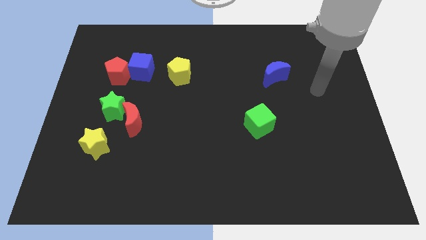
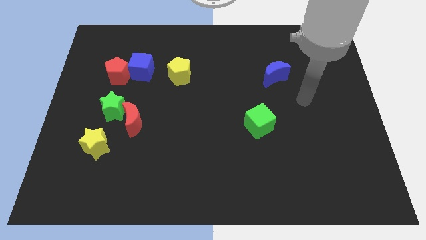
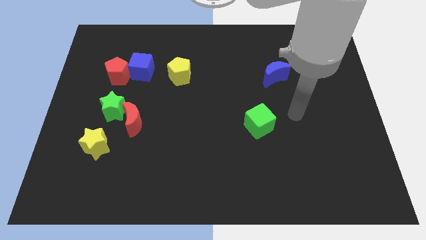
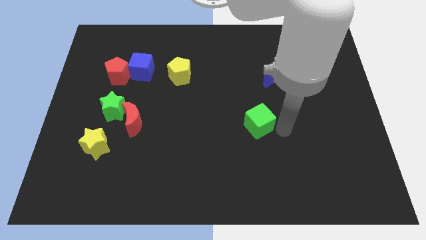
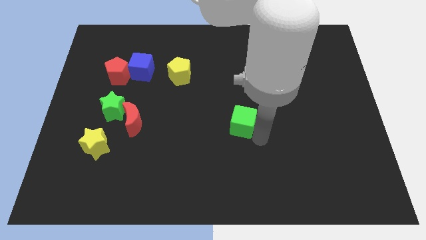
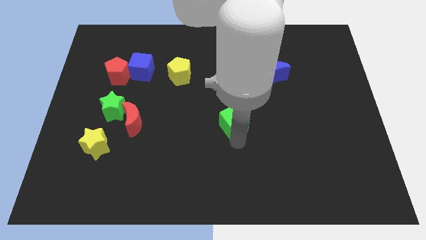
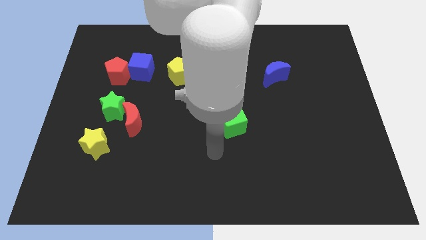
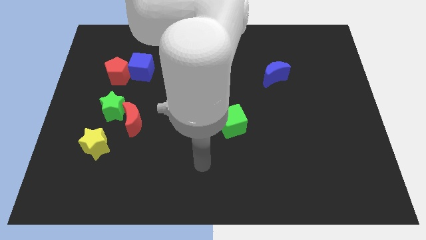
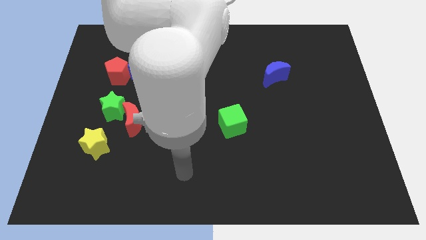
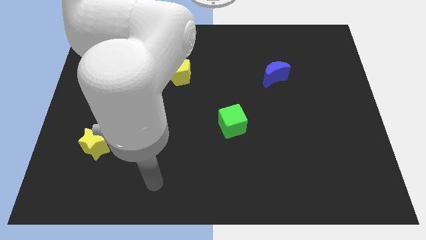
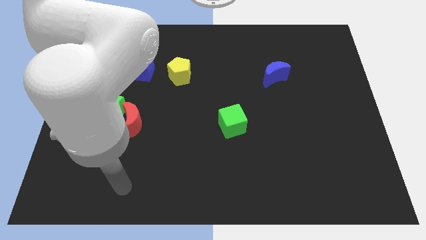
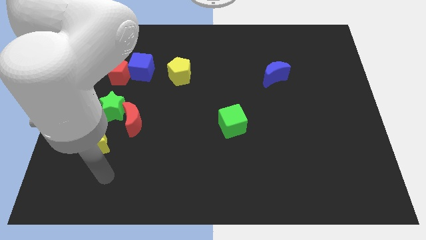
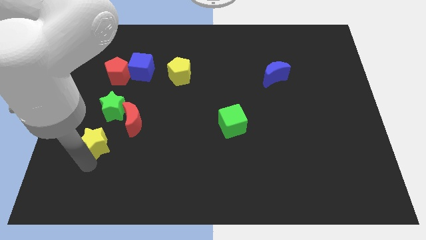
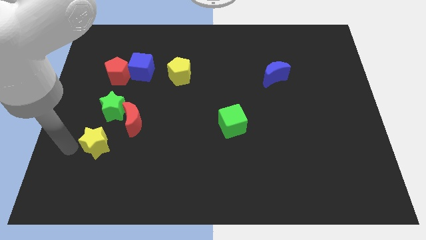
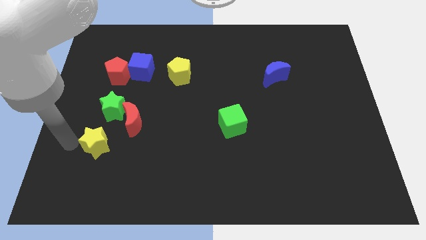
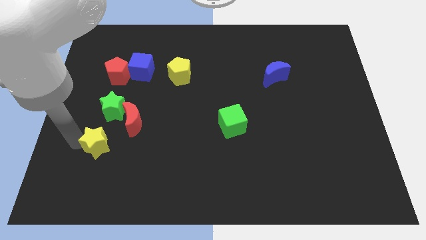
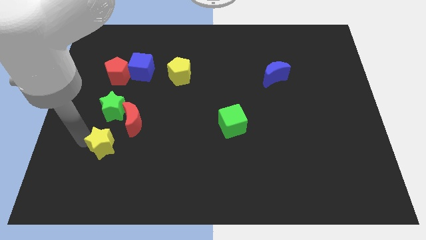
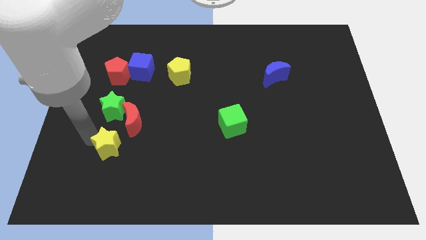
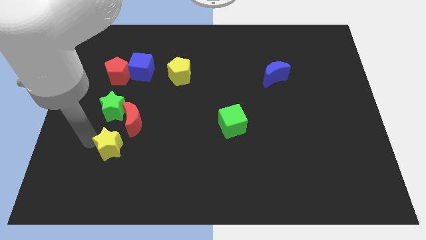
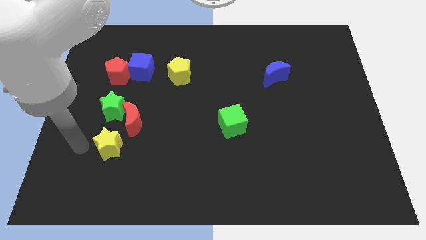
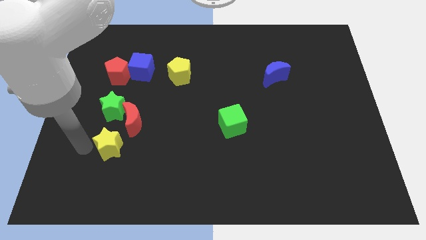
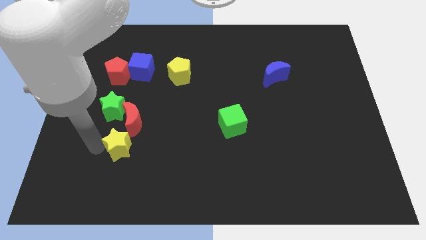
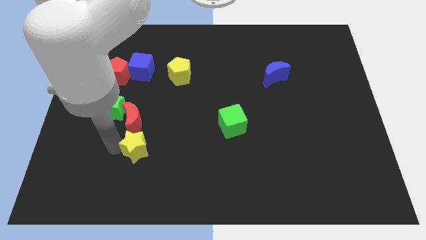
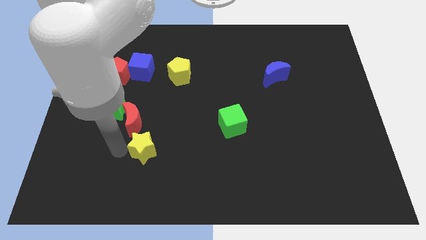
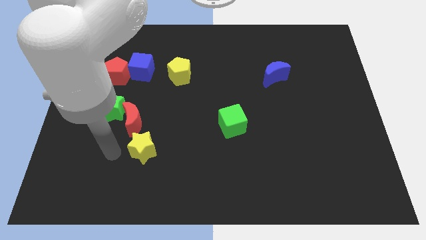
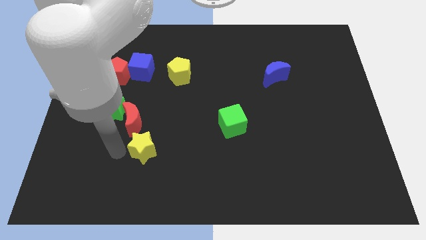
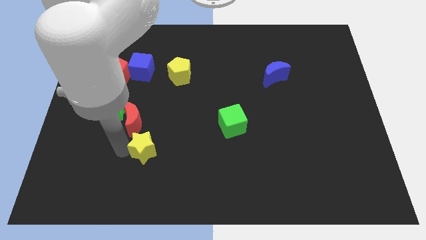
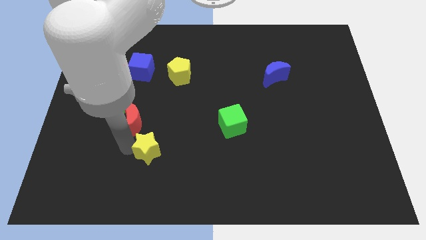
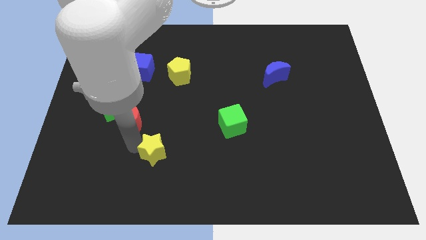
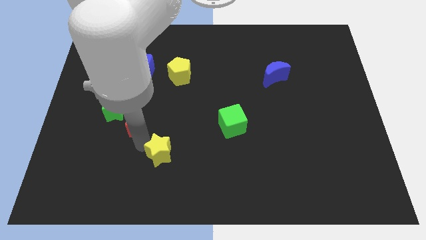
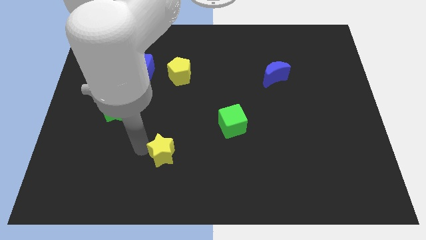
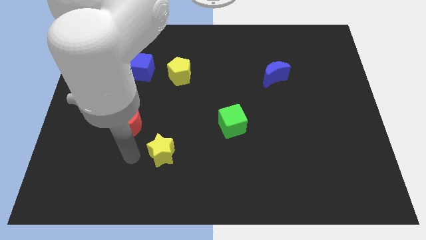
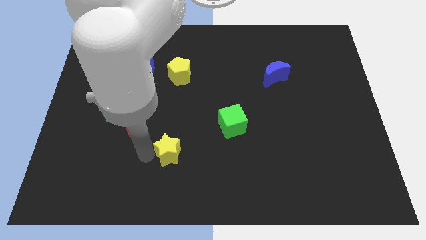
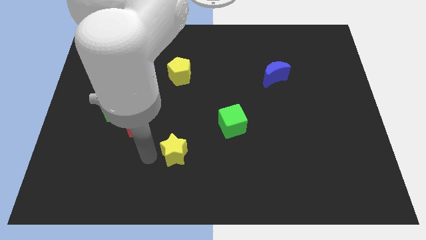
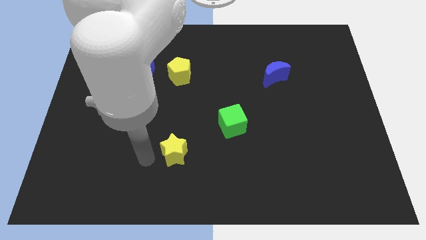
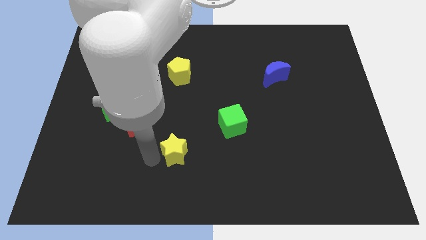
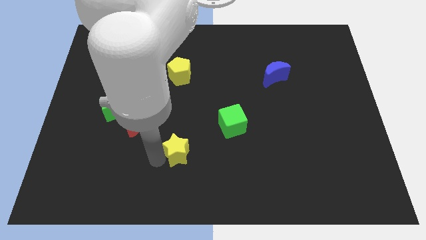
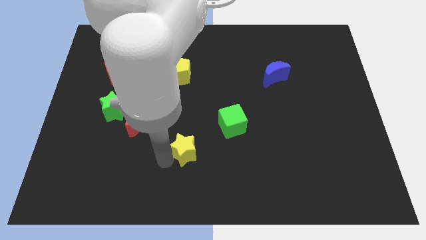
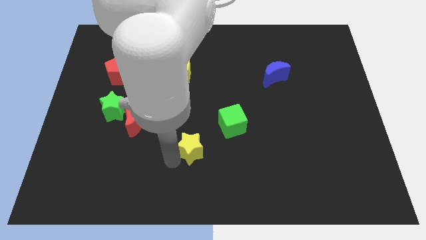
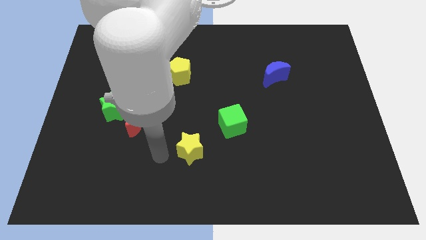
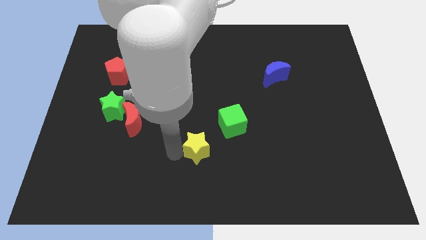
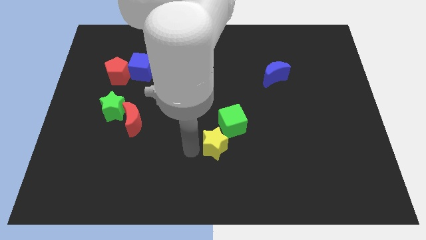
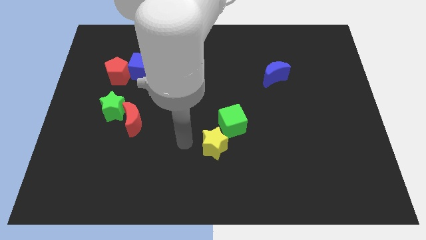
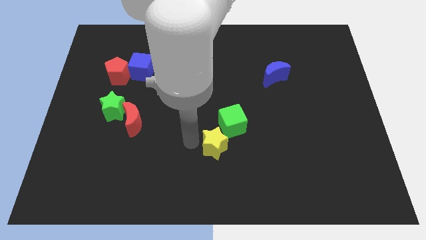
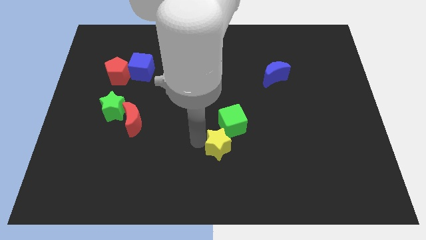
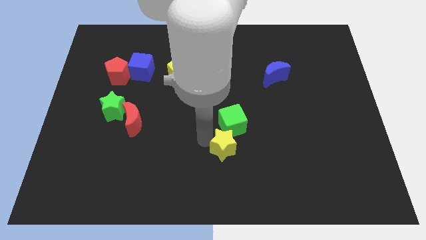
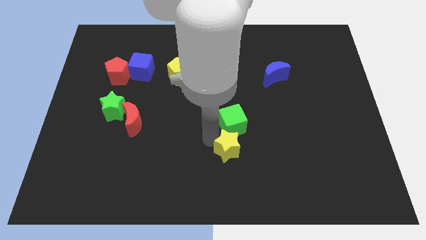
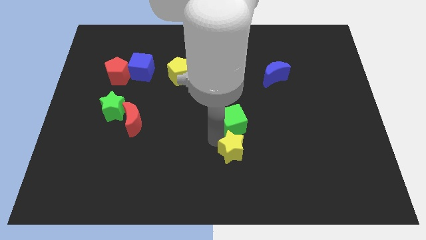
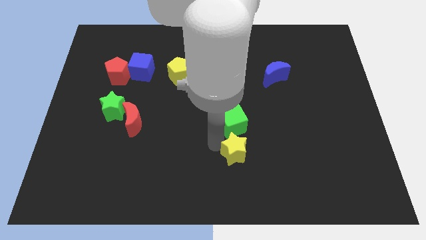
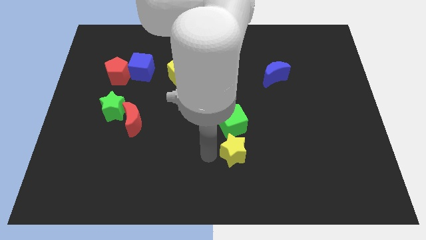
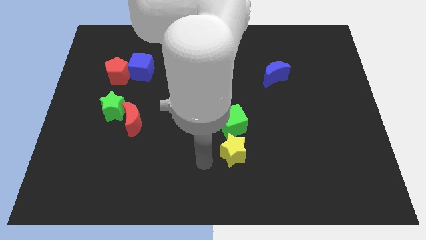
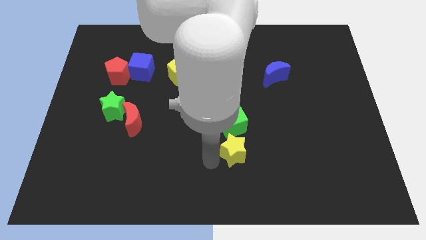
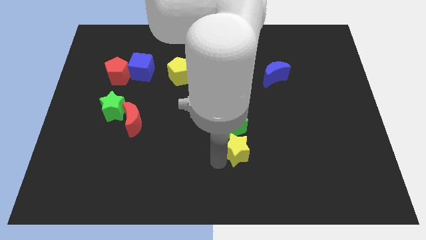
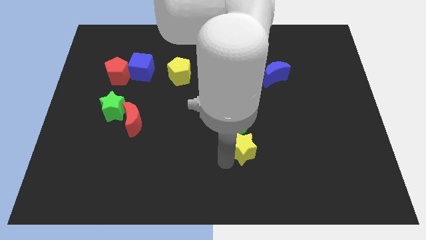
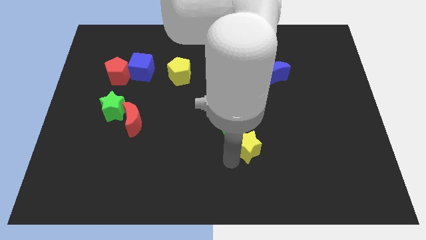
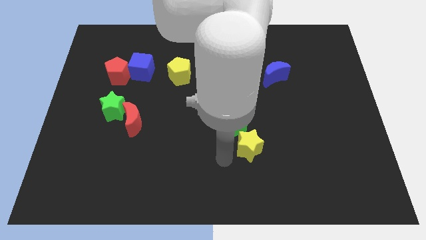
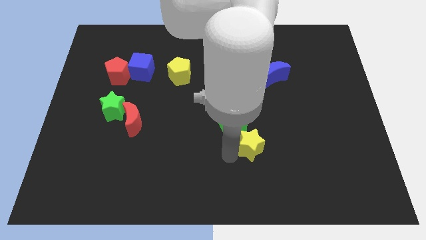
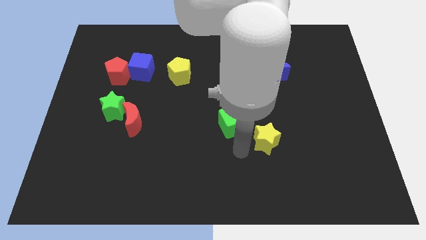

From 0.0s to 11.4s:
push the yellow star to the right side of the green cube

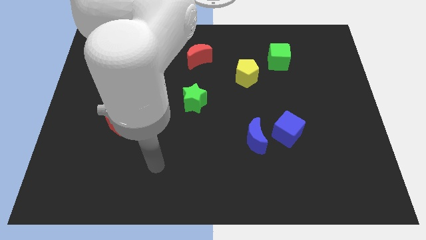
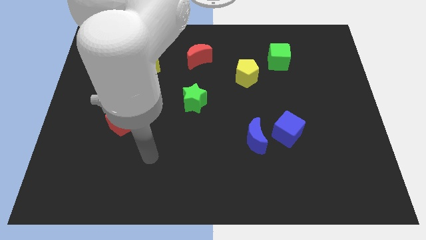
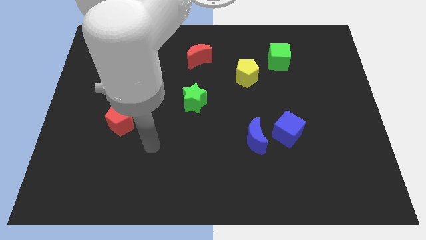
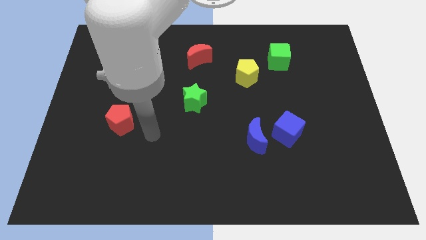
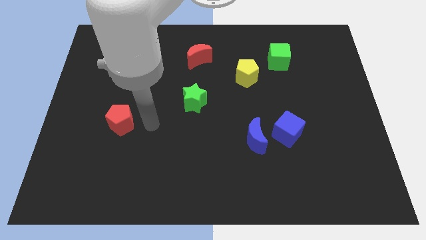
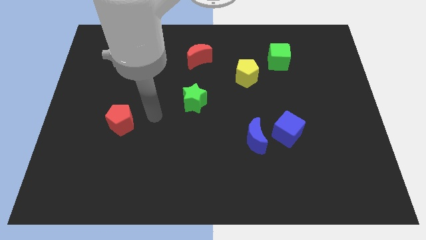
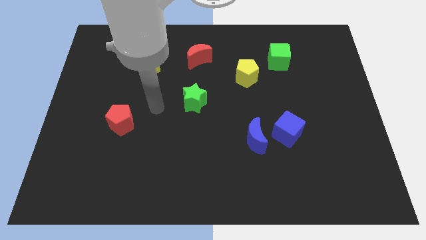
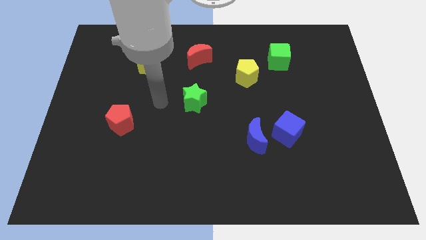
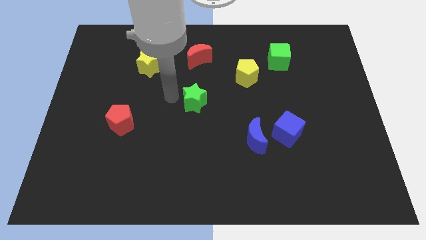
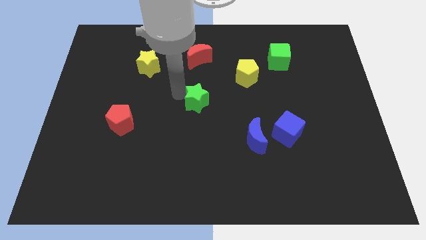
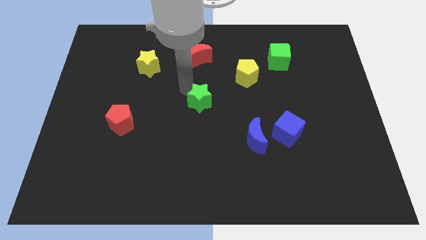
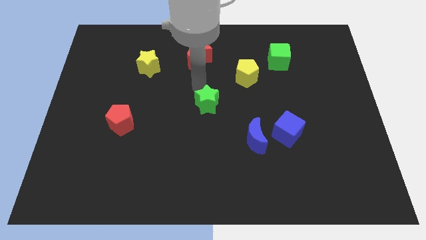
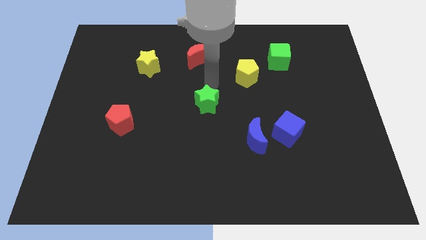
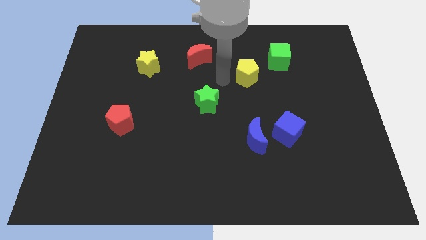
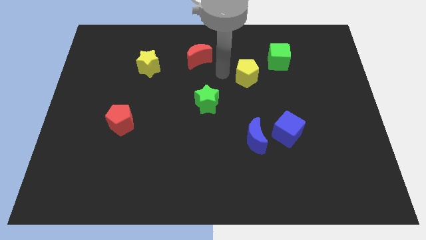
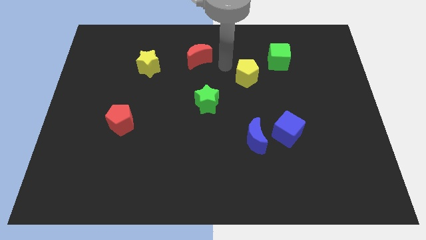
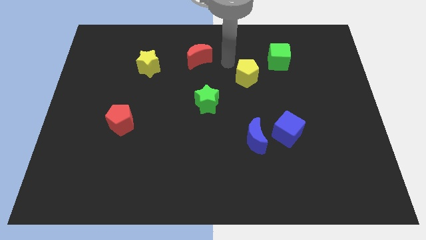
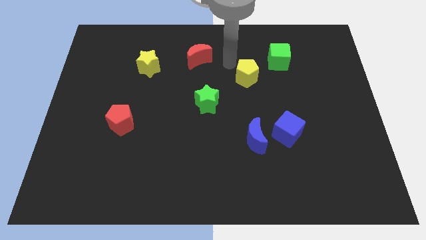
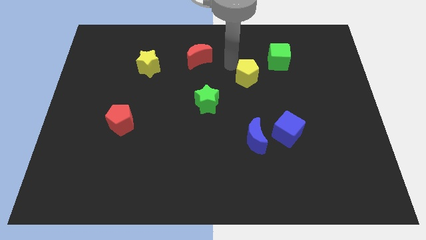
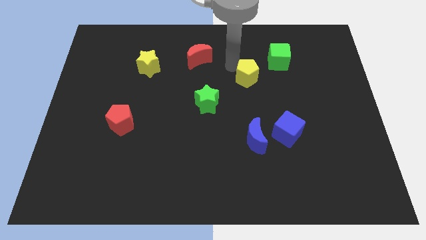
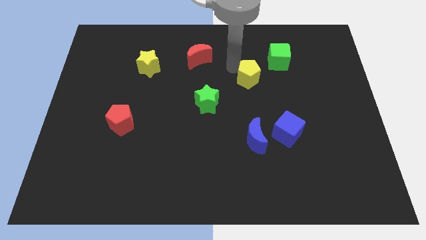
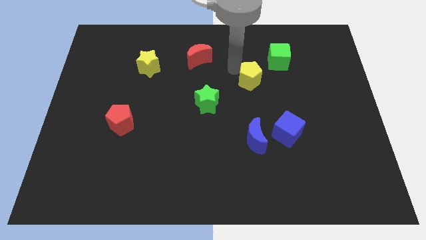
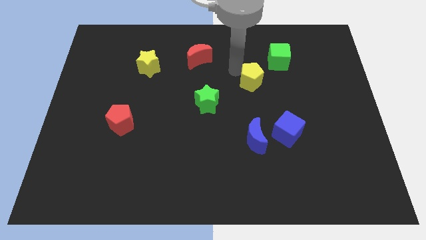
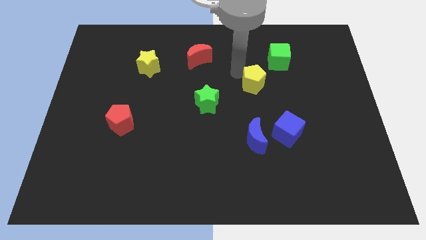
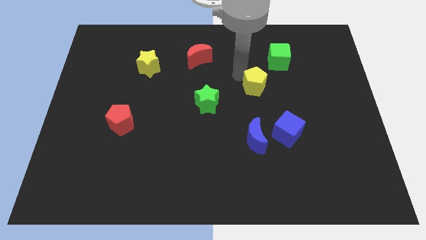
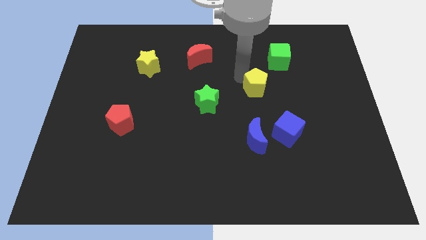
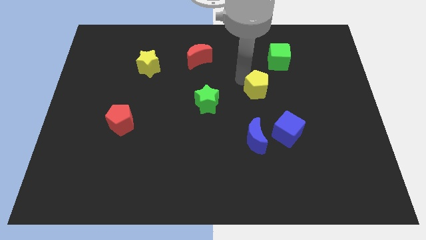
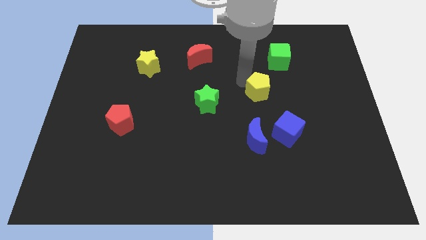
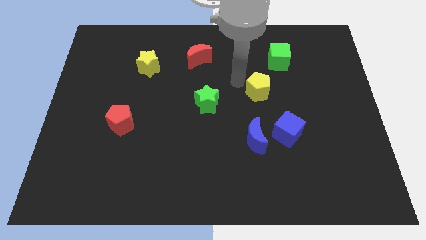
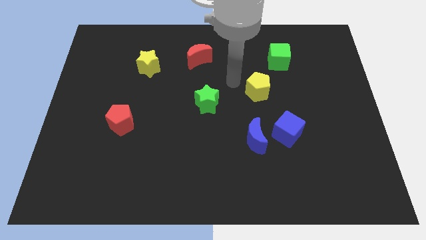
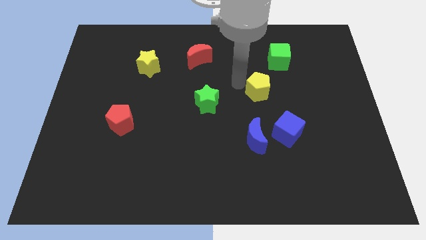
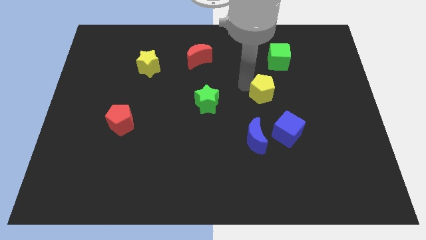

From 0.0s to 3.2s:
put the yellow pentagon to the top side of the blue cube
